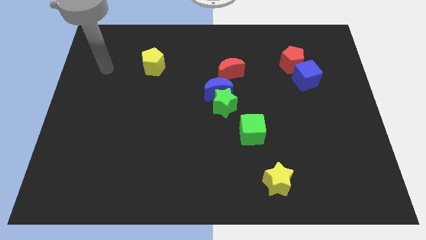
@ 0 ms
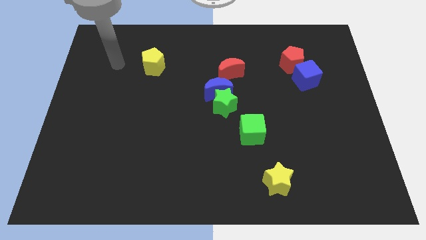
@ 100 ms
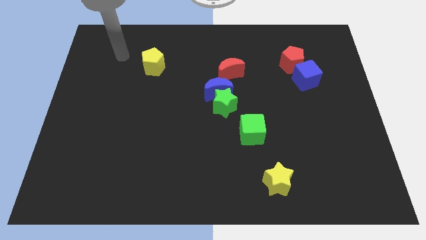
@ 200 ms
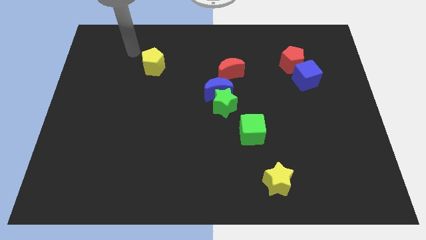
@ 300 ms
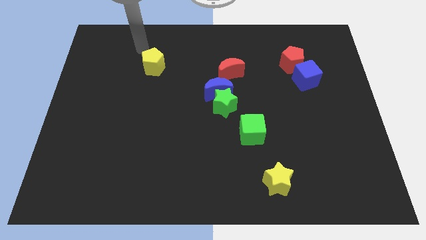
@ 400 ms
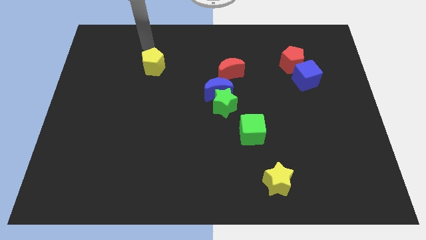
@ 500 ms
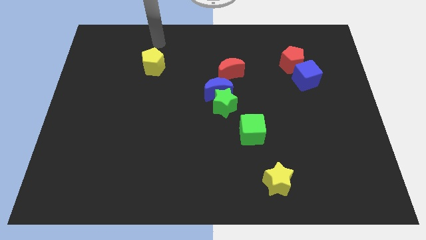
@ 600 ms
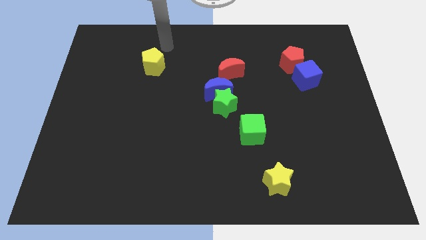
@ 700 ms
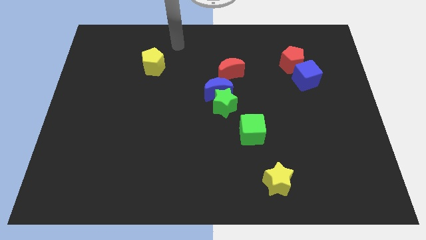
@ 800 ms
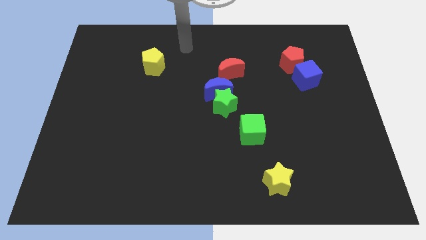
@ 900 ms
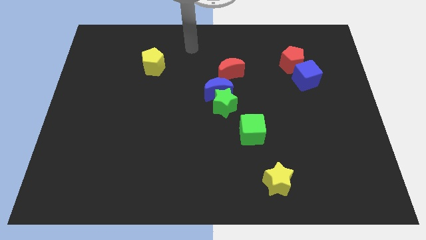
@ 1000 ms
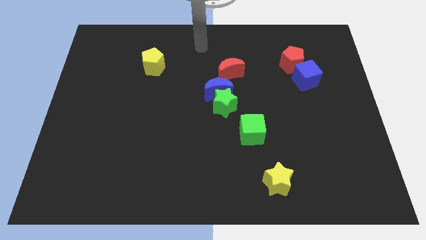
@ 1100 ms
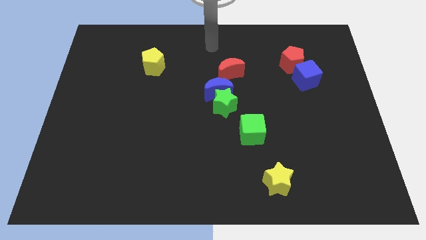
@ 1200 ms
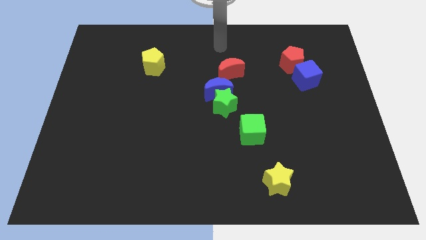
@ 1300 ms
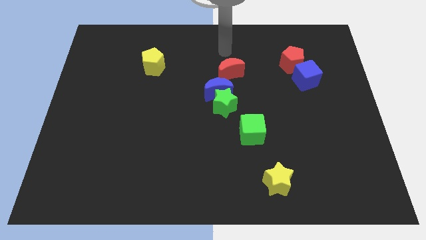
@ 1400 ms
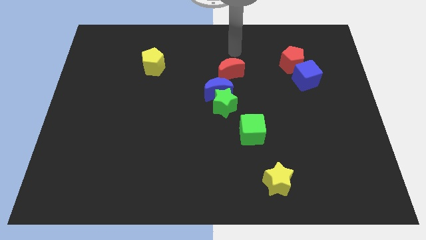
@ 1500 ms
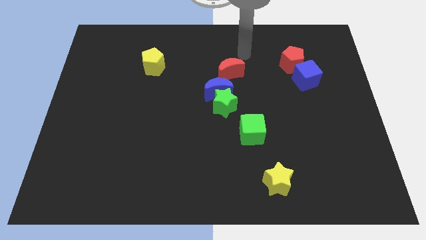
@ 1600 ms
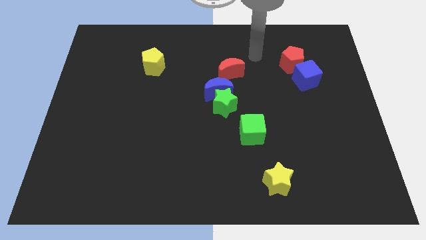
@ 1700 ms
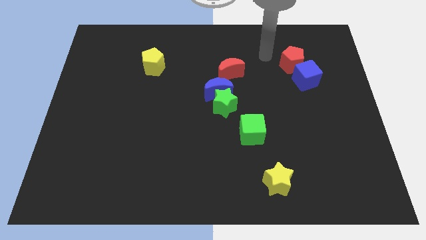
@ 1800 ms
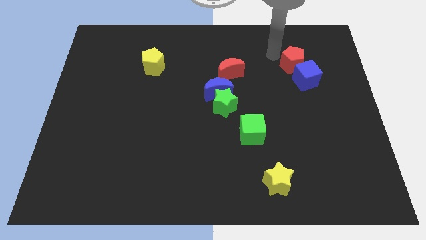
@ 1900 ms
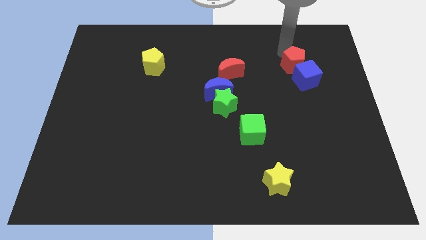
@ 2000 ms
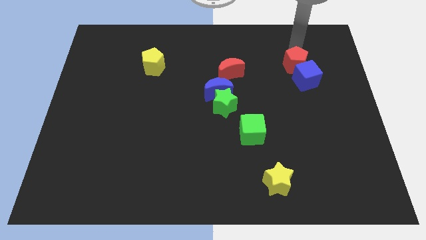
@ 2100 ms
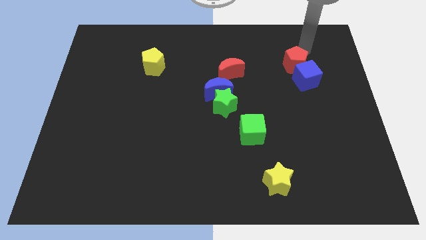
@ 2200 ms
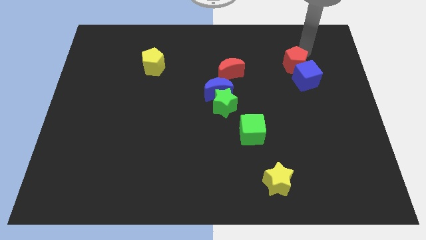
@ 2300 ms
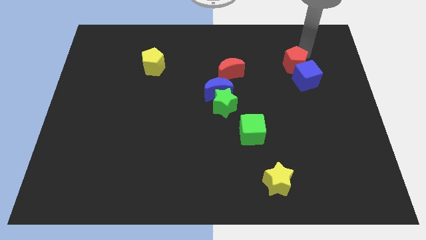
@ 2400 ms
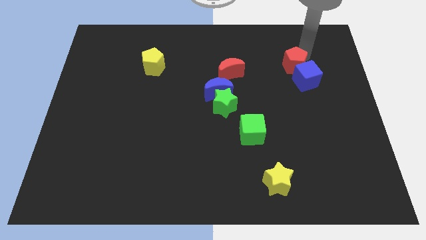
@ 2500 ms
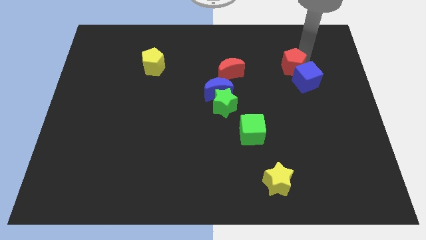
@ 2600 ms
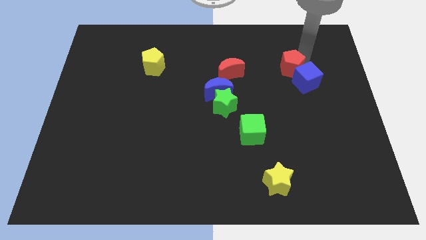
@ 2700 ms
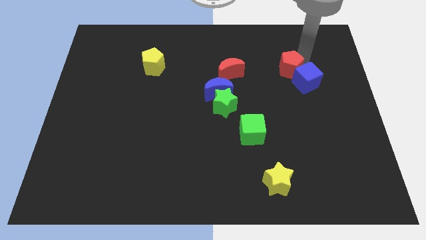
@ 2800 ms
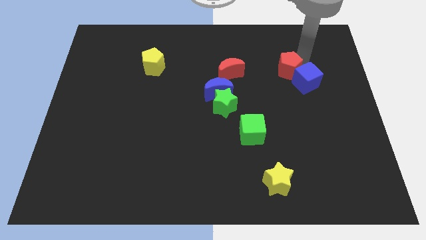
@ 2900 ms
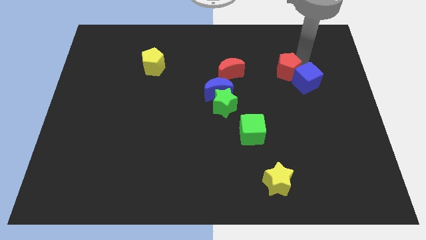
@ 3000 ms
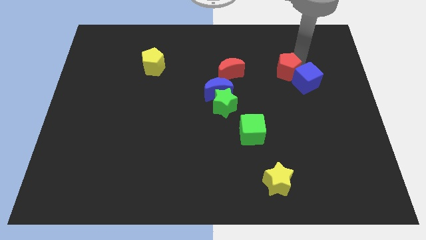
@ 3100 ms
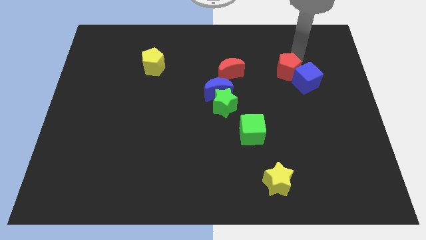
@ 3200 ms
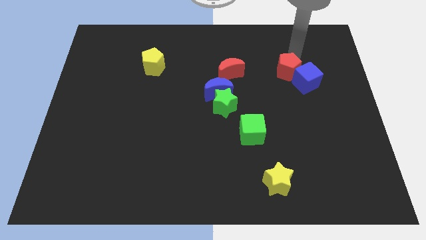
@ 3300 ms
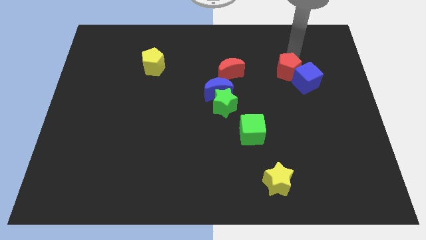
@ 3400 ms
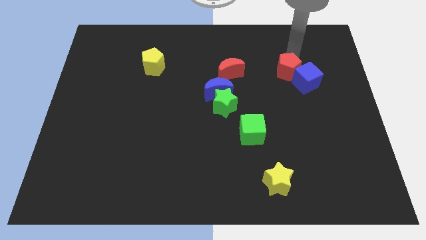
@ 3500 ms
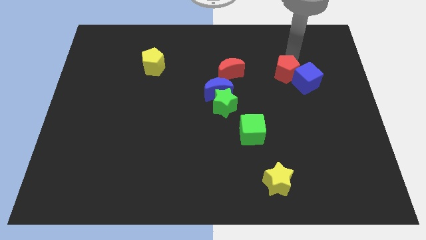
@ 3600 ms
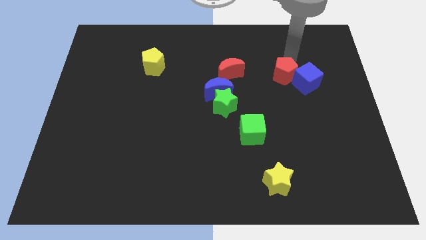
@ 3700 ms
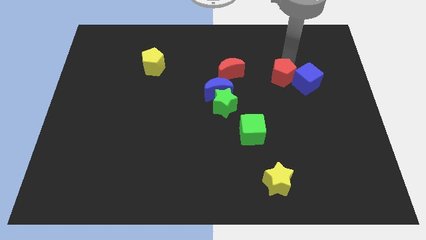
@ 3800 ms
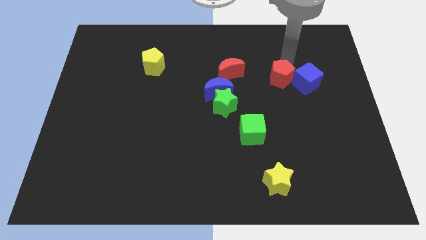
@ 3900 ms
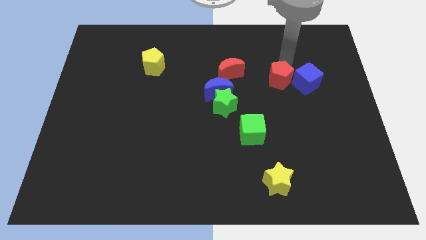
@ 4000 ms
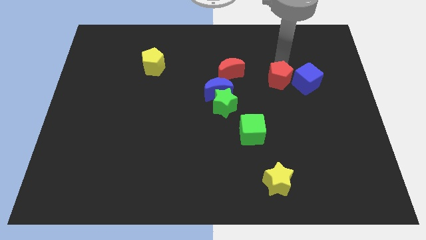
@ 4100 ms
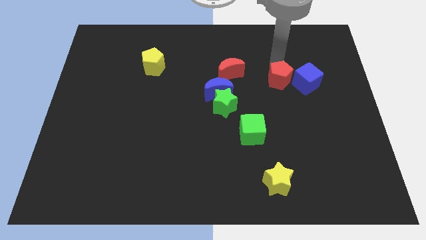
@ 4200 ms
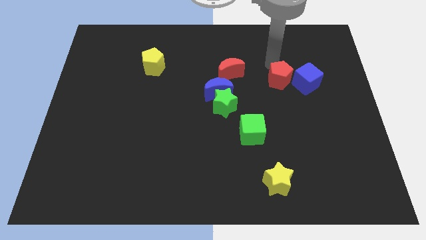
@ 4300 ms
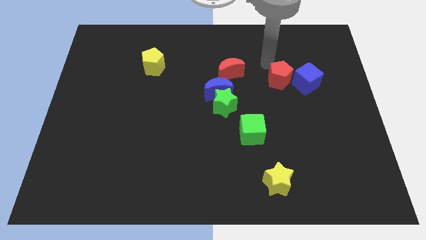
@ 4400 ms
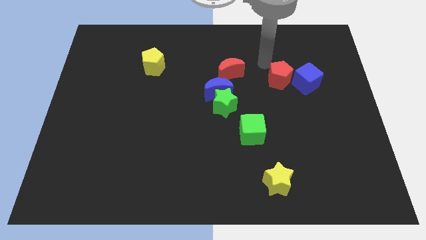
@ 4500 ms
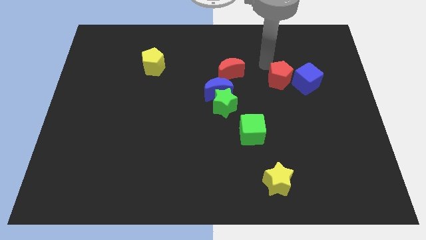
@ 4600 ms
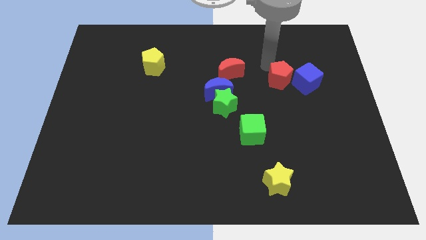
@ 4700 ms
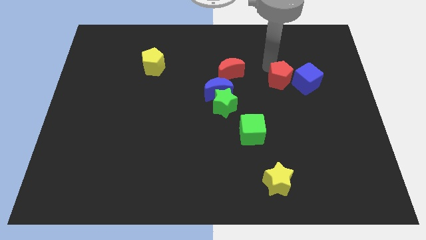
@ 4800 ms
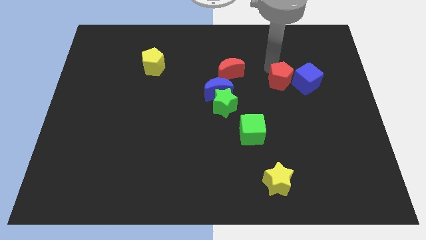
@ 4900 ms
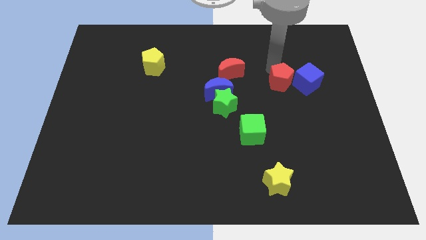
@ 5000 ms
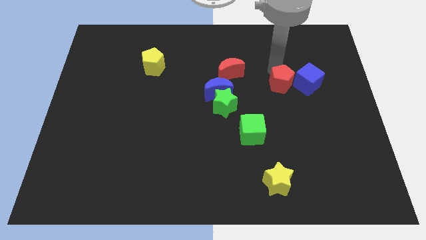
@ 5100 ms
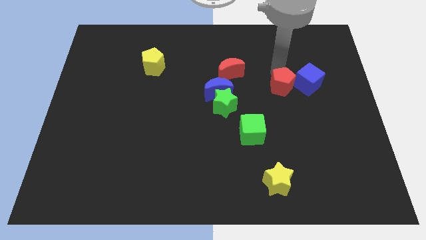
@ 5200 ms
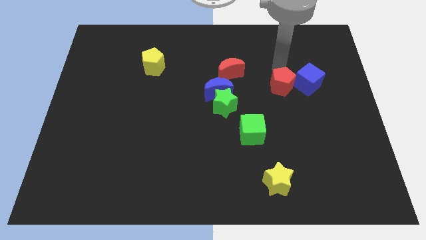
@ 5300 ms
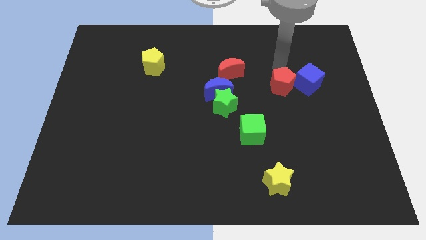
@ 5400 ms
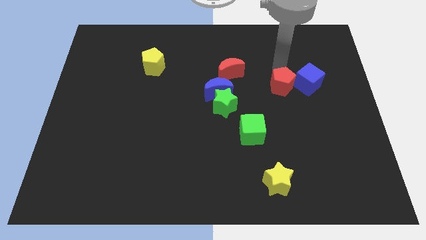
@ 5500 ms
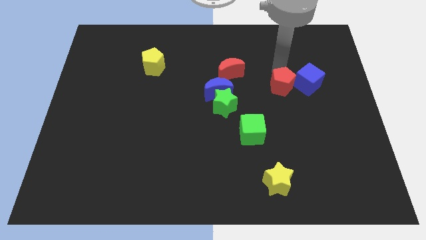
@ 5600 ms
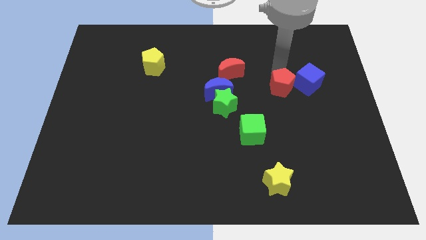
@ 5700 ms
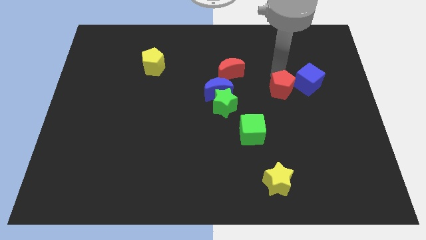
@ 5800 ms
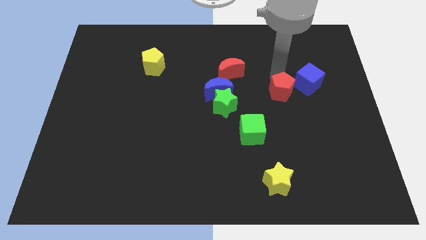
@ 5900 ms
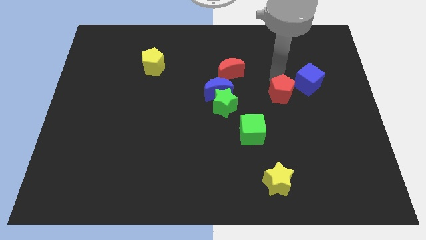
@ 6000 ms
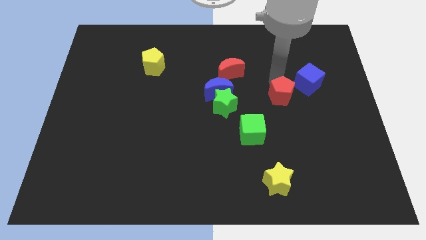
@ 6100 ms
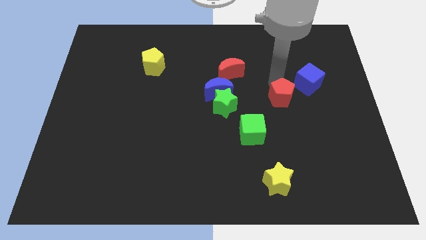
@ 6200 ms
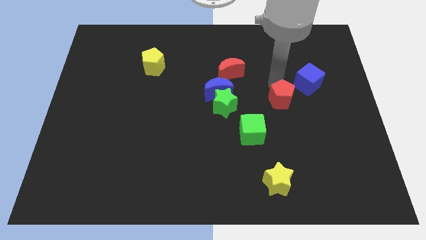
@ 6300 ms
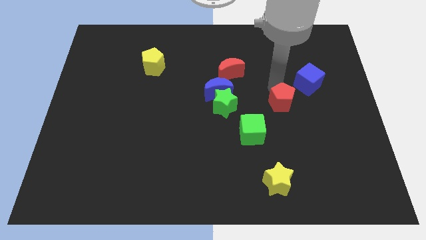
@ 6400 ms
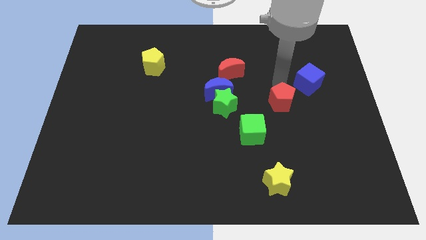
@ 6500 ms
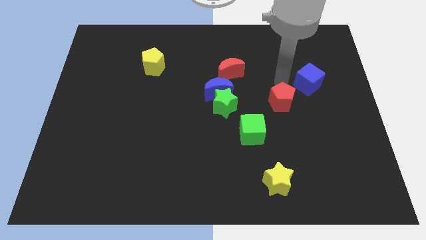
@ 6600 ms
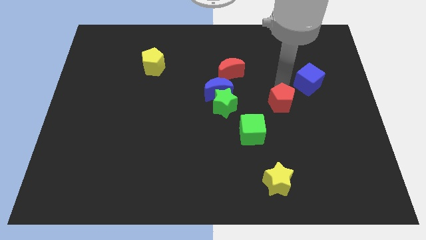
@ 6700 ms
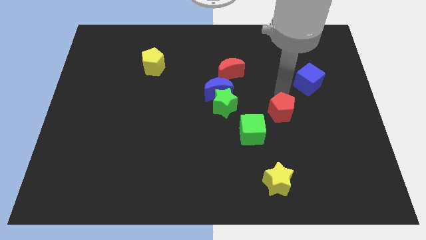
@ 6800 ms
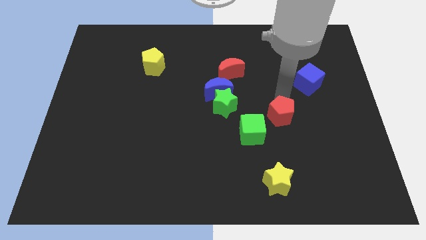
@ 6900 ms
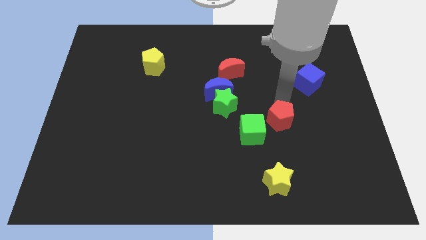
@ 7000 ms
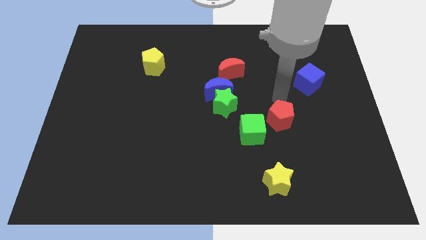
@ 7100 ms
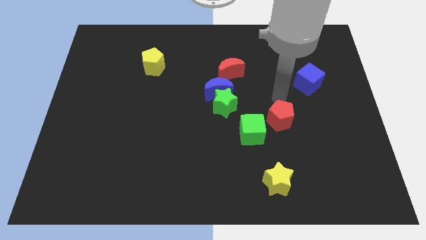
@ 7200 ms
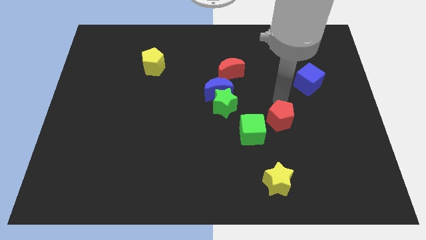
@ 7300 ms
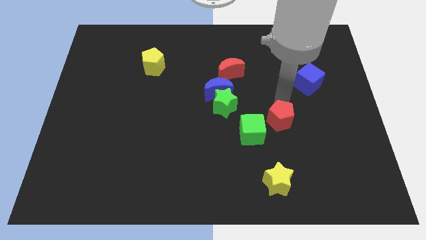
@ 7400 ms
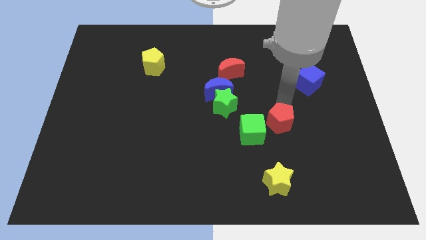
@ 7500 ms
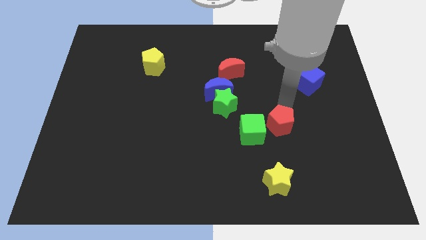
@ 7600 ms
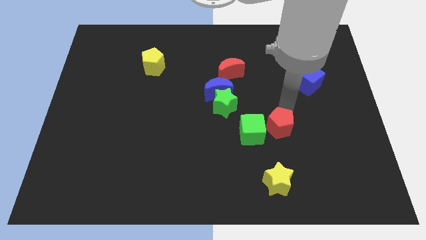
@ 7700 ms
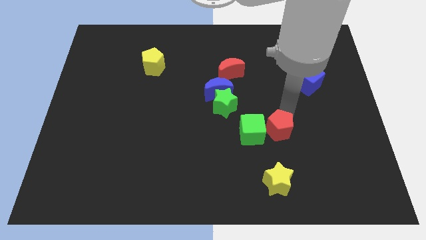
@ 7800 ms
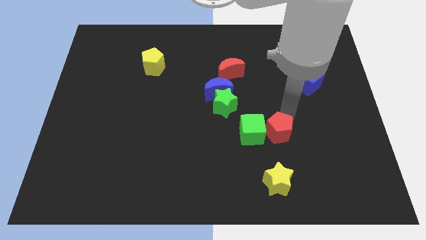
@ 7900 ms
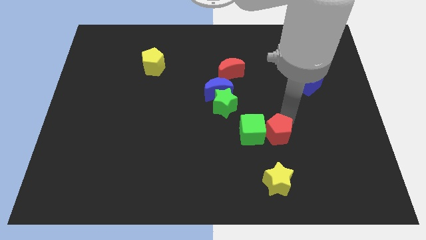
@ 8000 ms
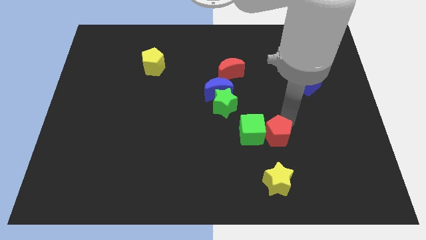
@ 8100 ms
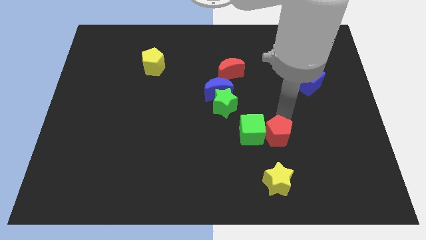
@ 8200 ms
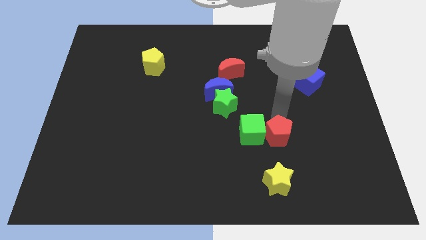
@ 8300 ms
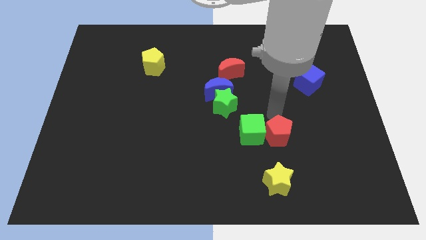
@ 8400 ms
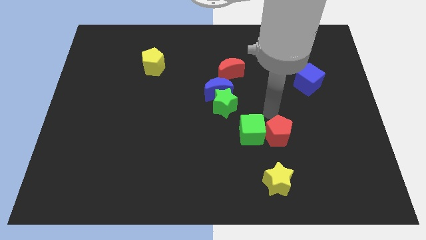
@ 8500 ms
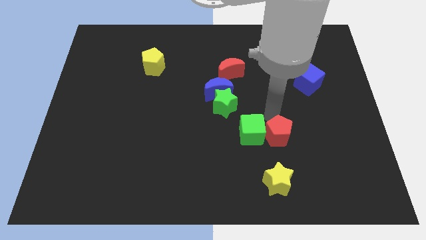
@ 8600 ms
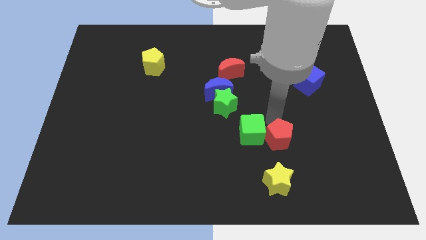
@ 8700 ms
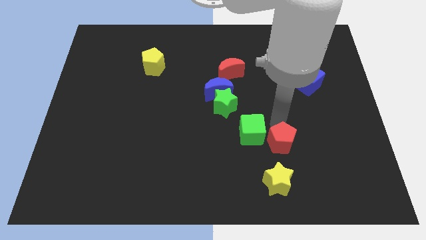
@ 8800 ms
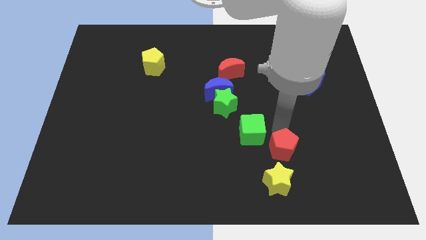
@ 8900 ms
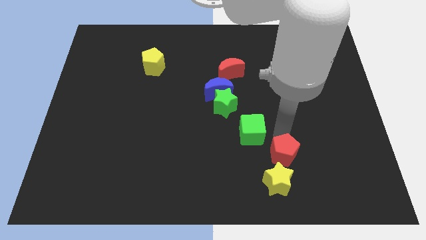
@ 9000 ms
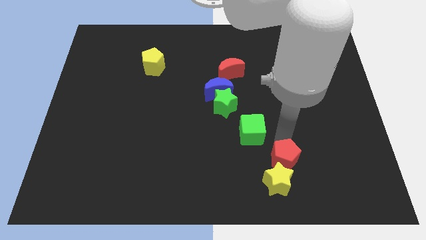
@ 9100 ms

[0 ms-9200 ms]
move the red pentagon close to the yellow star
